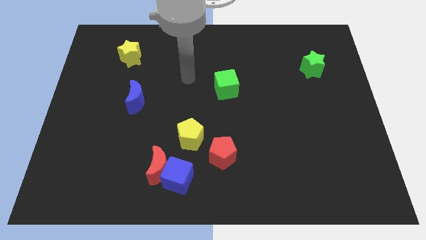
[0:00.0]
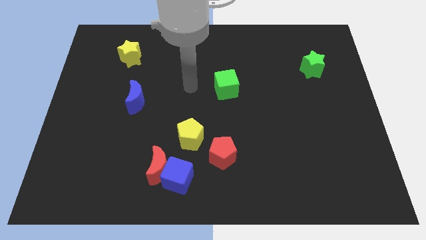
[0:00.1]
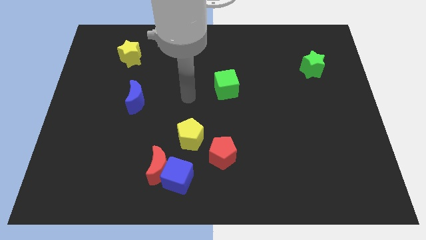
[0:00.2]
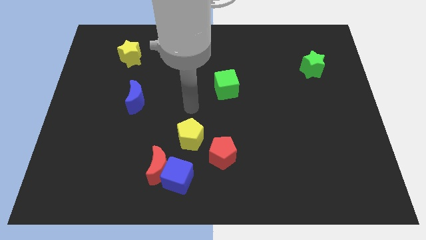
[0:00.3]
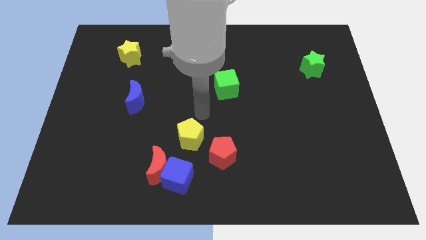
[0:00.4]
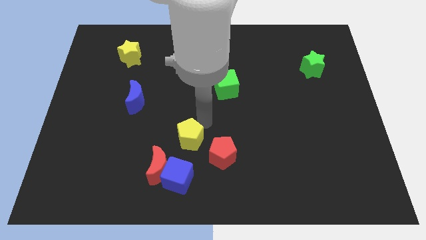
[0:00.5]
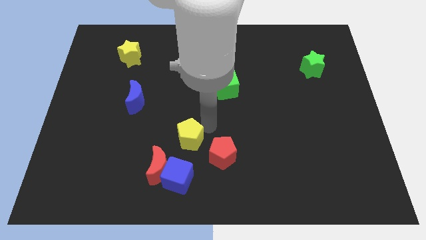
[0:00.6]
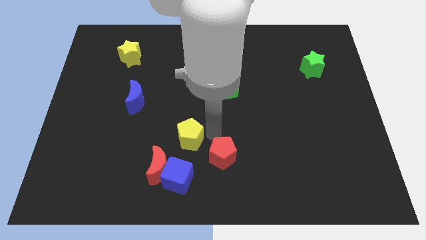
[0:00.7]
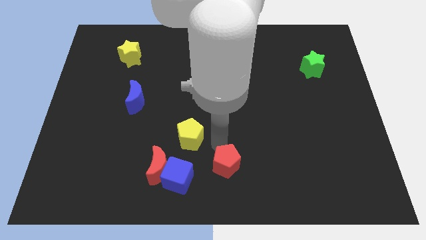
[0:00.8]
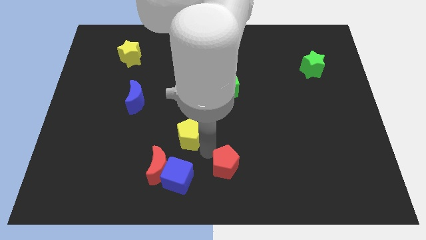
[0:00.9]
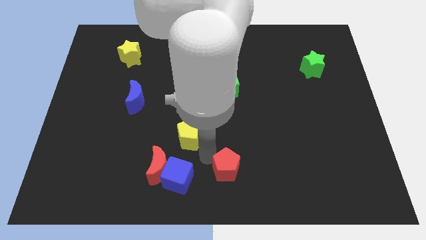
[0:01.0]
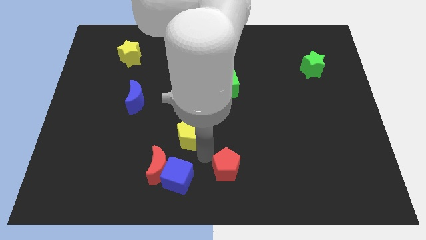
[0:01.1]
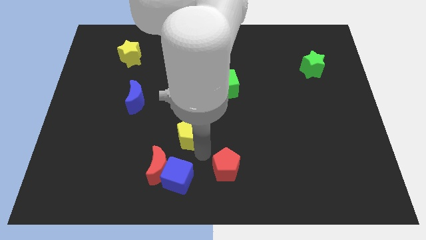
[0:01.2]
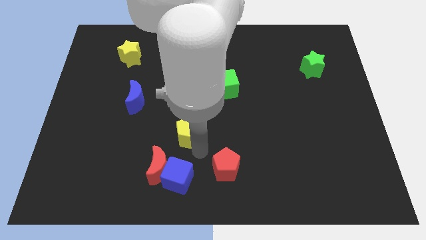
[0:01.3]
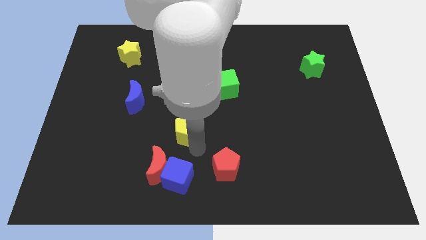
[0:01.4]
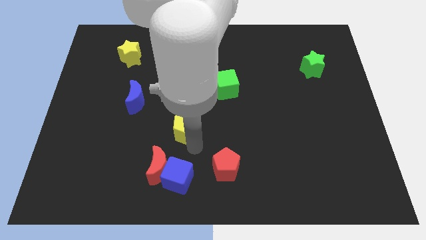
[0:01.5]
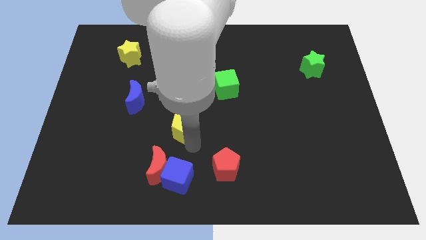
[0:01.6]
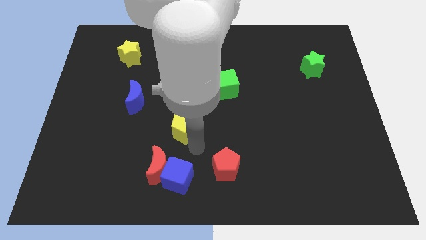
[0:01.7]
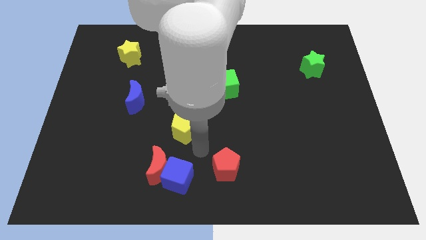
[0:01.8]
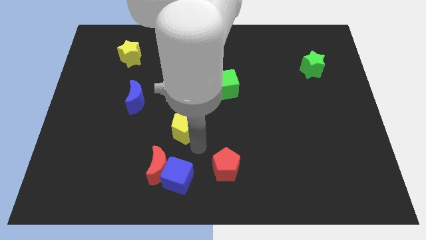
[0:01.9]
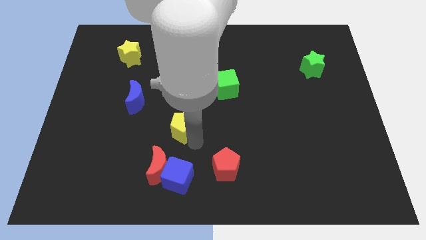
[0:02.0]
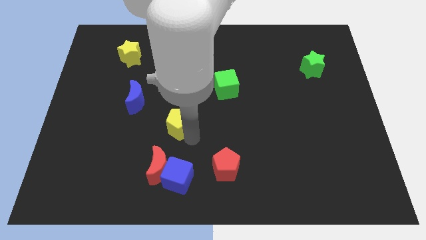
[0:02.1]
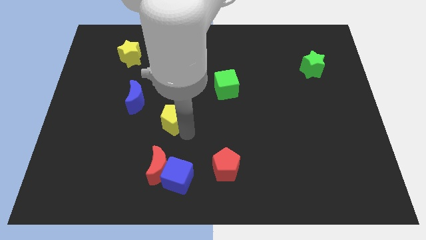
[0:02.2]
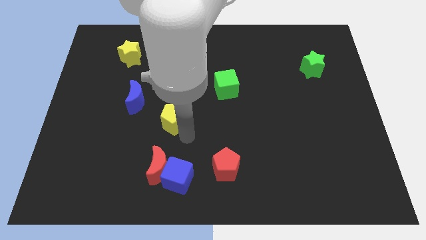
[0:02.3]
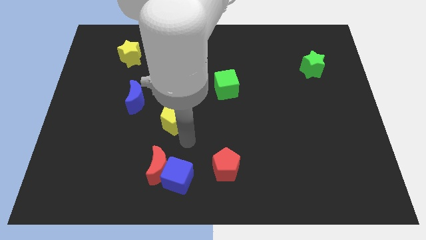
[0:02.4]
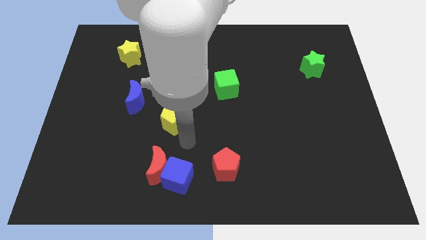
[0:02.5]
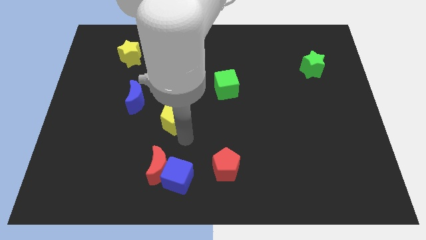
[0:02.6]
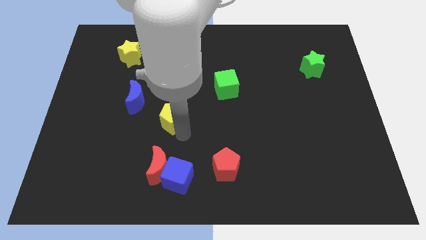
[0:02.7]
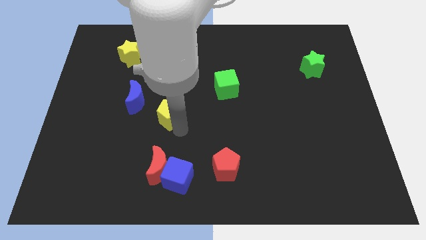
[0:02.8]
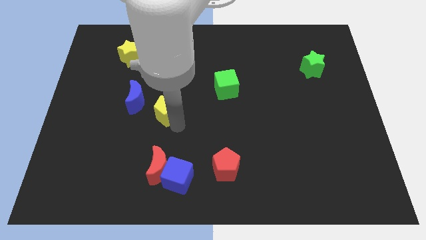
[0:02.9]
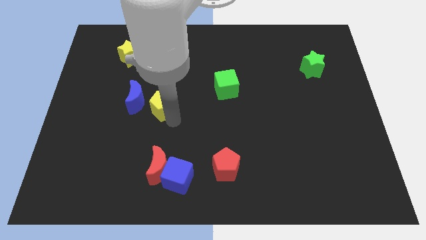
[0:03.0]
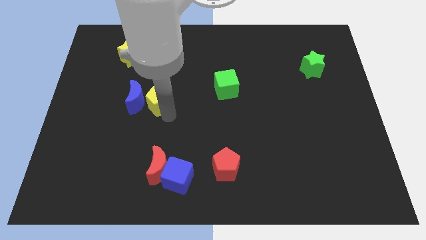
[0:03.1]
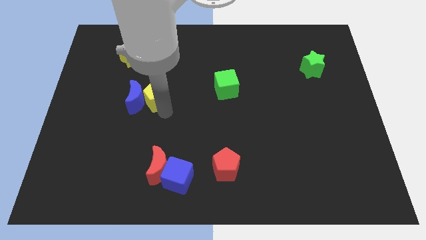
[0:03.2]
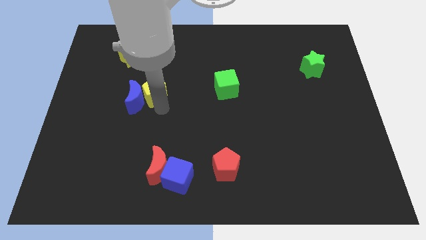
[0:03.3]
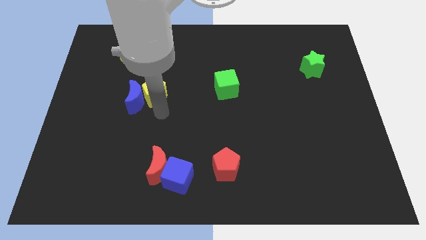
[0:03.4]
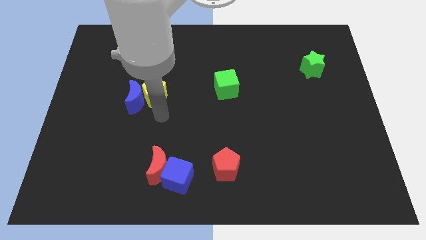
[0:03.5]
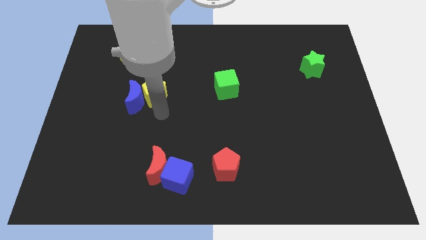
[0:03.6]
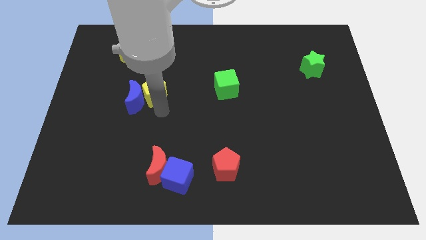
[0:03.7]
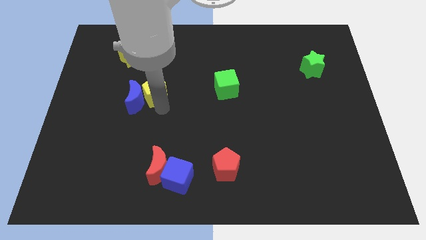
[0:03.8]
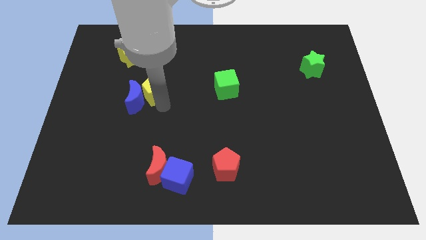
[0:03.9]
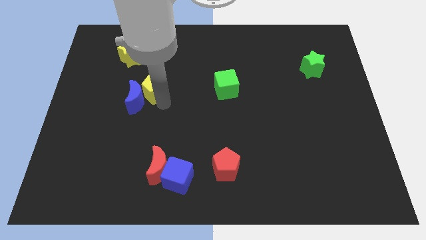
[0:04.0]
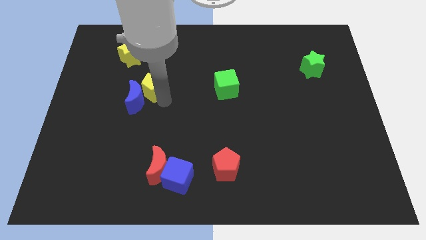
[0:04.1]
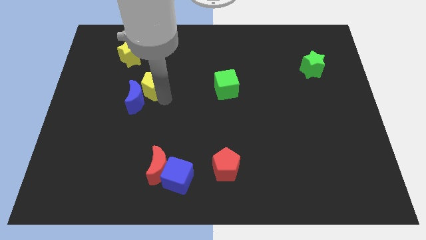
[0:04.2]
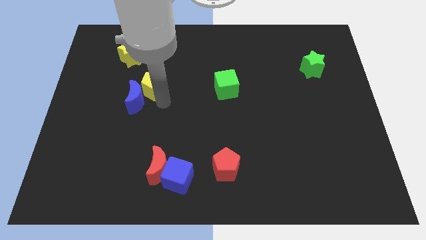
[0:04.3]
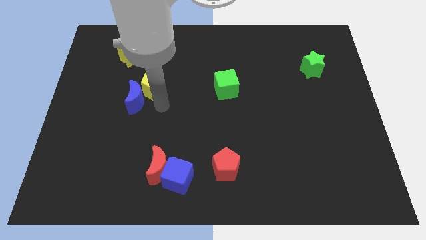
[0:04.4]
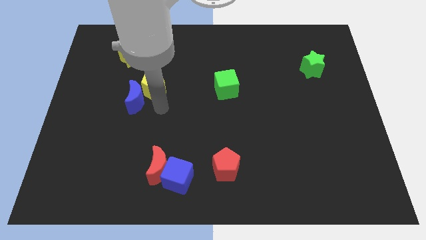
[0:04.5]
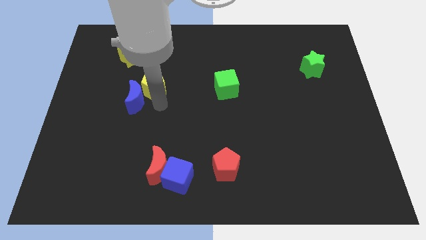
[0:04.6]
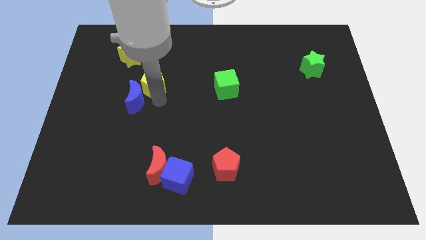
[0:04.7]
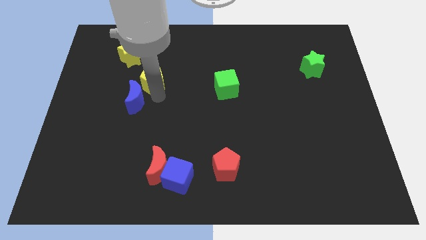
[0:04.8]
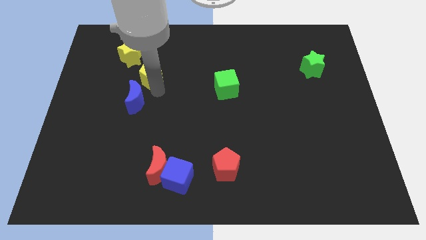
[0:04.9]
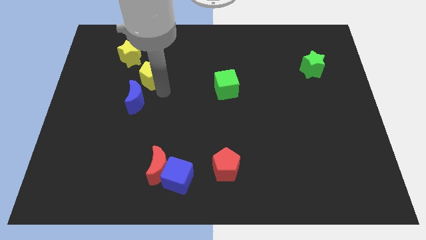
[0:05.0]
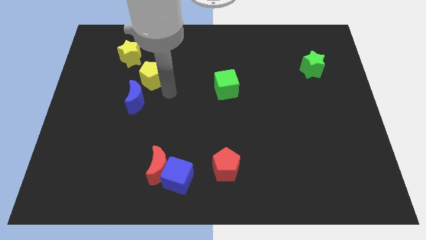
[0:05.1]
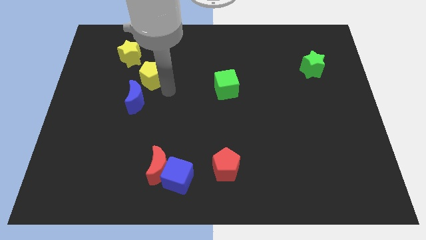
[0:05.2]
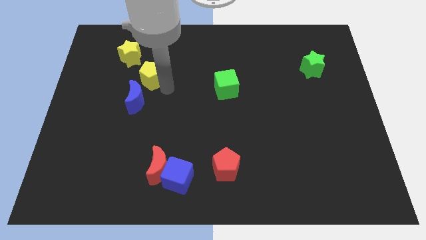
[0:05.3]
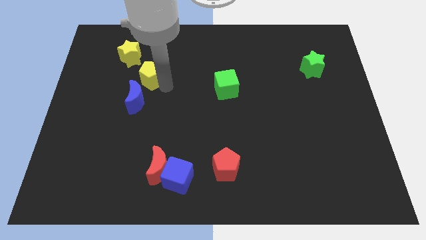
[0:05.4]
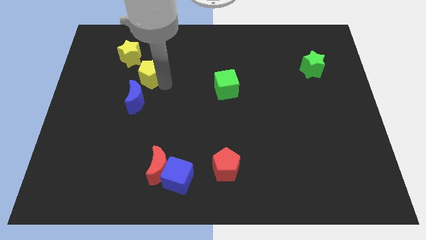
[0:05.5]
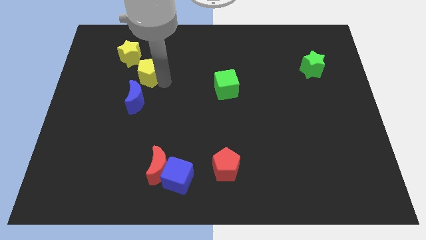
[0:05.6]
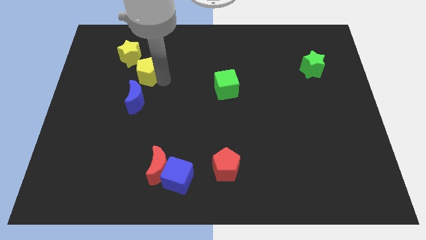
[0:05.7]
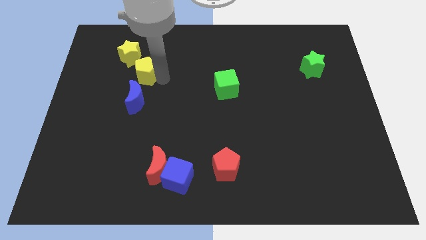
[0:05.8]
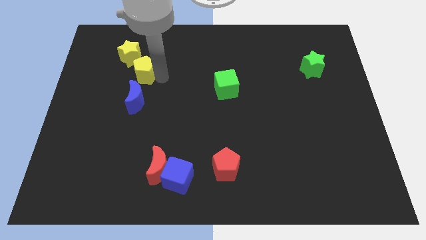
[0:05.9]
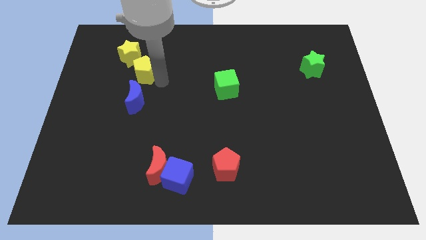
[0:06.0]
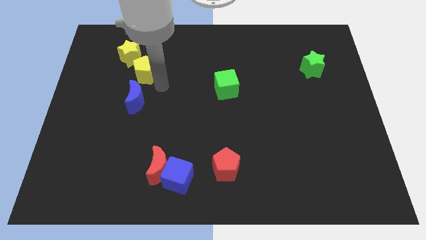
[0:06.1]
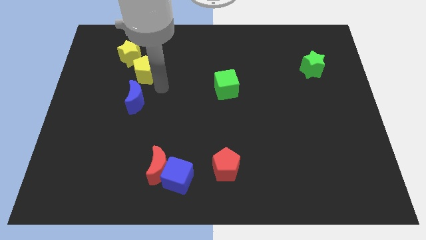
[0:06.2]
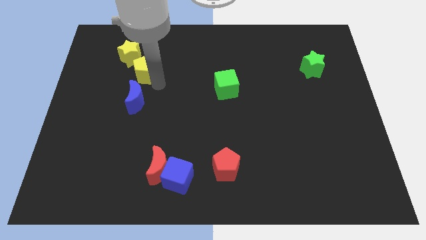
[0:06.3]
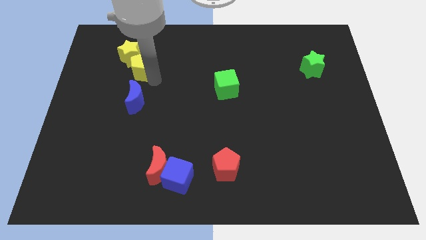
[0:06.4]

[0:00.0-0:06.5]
slide the yellow pentagon towards the yellow star

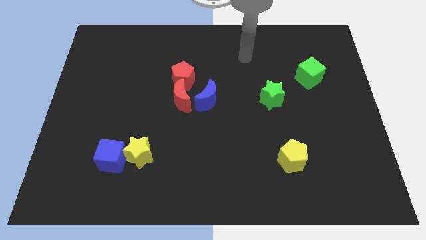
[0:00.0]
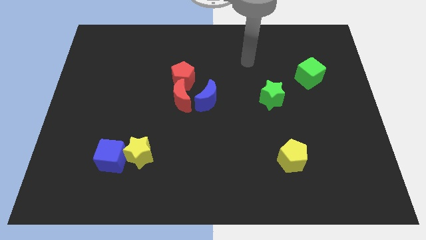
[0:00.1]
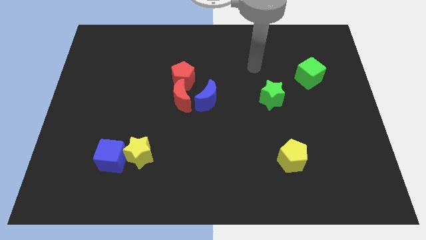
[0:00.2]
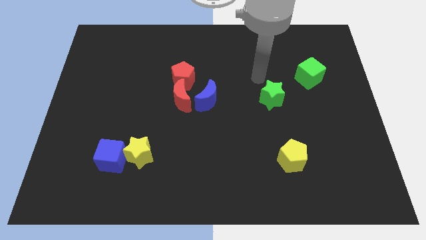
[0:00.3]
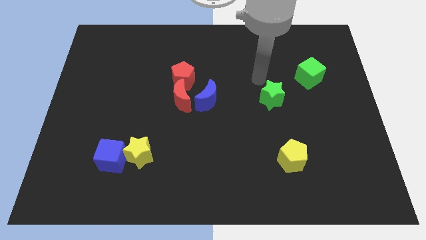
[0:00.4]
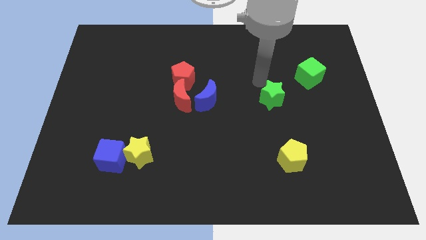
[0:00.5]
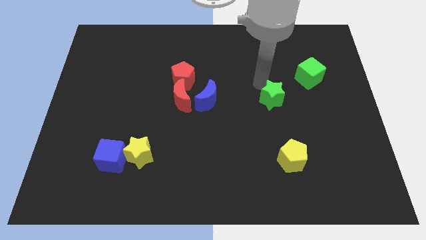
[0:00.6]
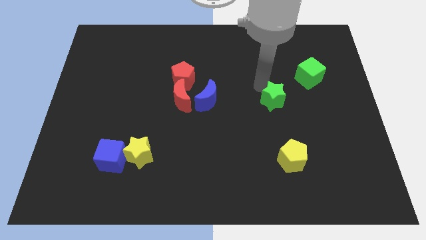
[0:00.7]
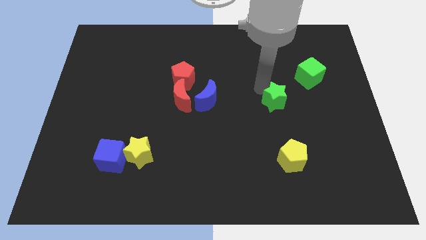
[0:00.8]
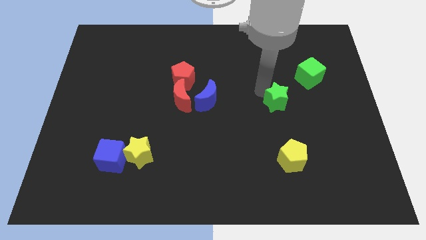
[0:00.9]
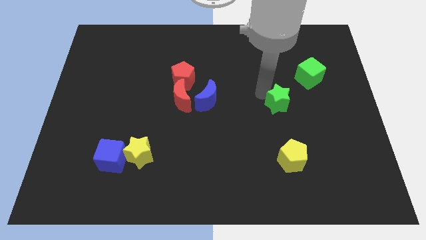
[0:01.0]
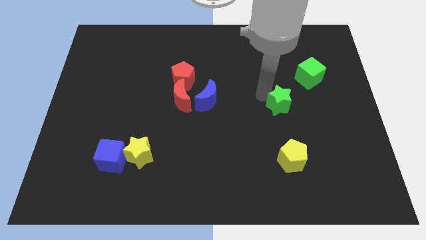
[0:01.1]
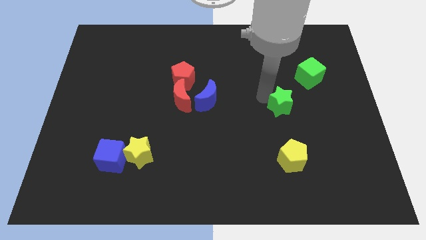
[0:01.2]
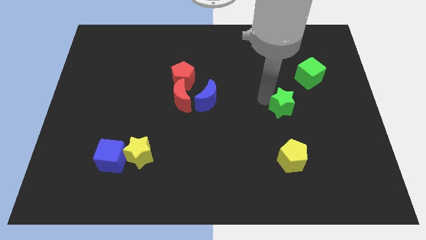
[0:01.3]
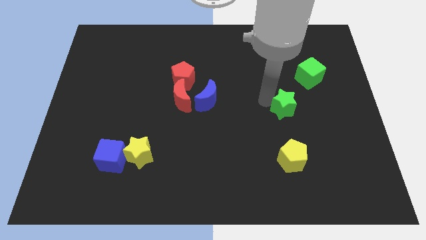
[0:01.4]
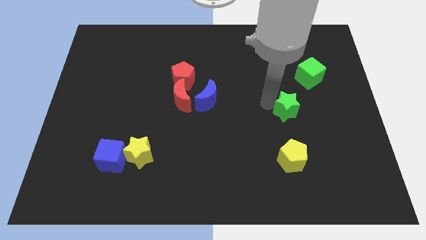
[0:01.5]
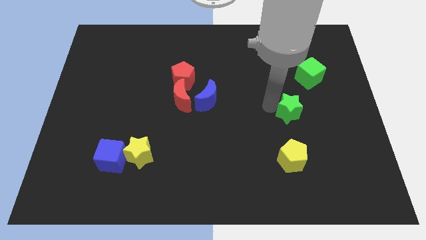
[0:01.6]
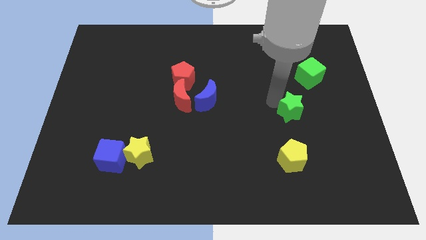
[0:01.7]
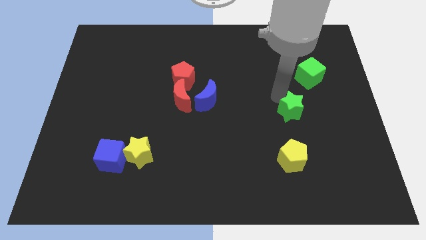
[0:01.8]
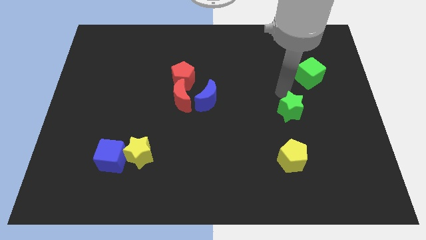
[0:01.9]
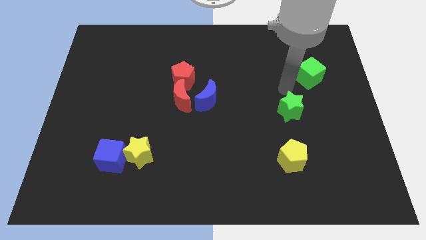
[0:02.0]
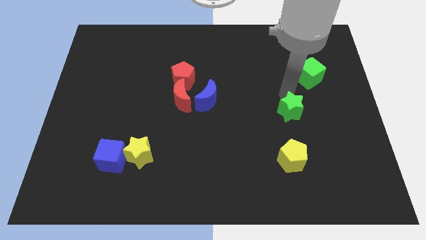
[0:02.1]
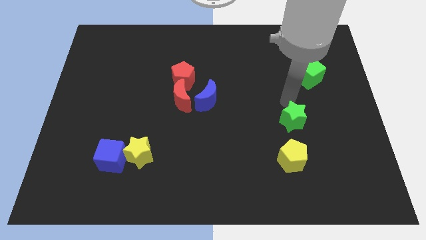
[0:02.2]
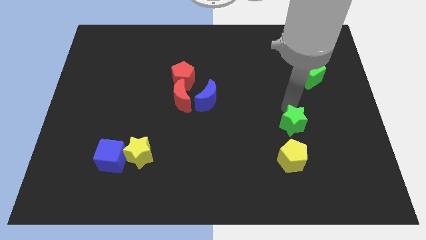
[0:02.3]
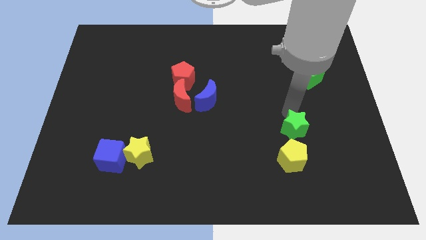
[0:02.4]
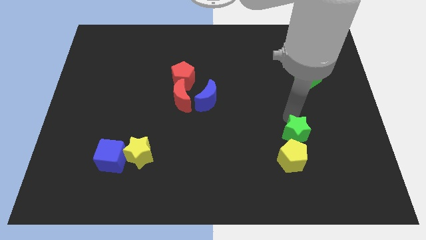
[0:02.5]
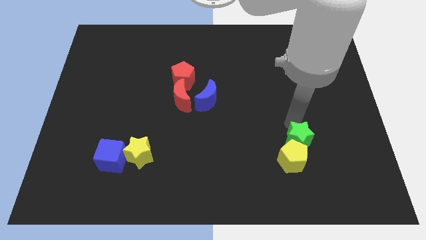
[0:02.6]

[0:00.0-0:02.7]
move the green star next to the yellow pentagon
